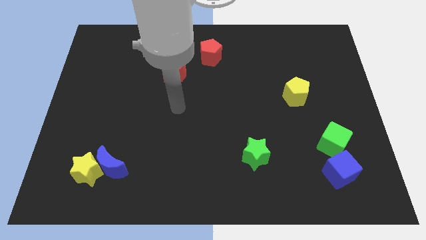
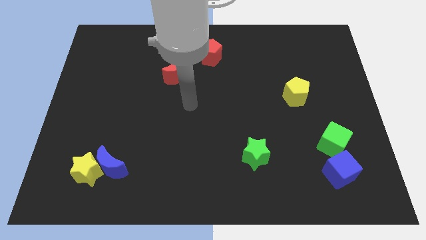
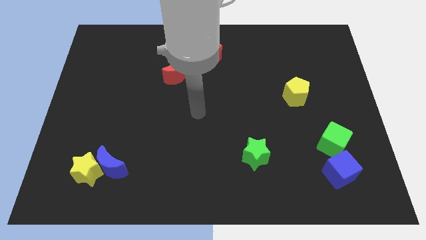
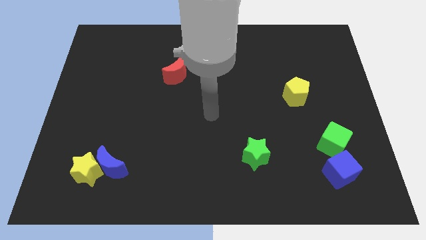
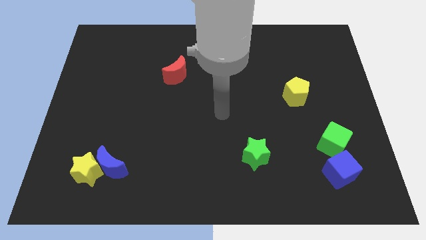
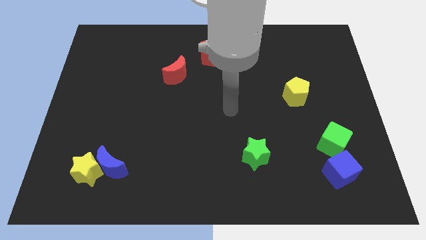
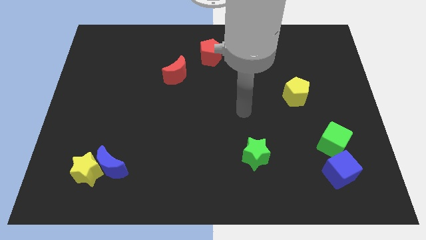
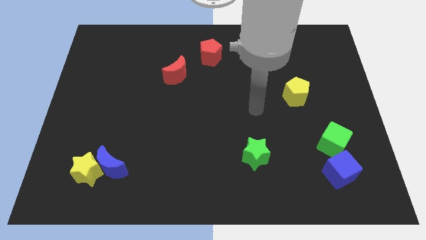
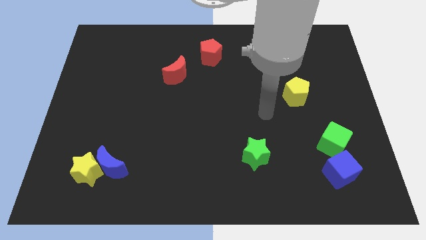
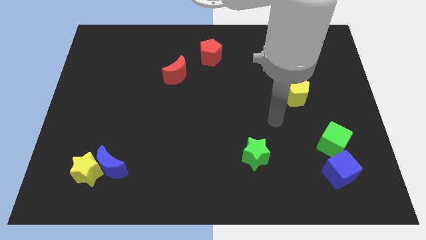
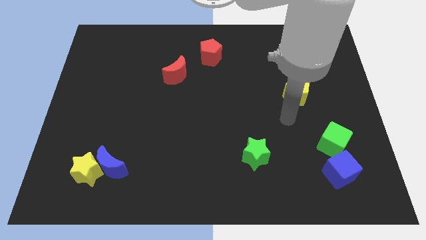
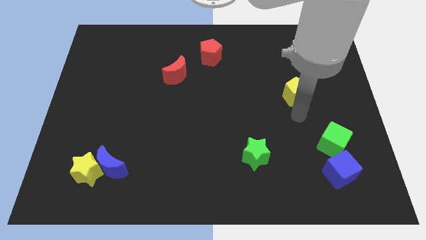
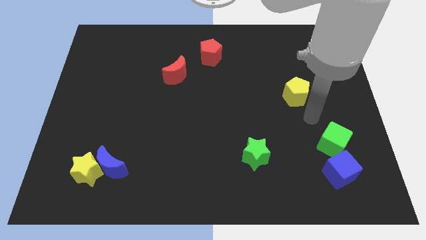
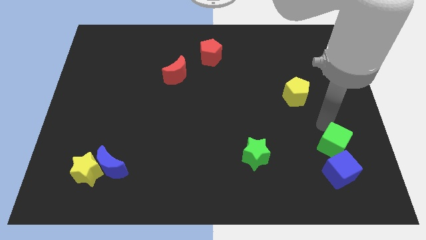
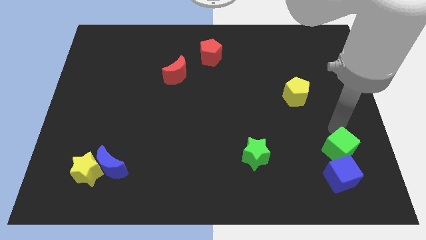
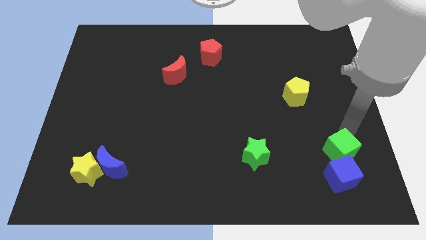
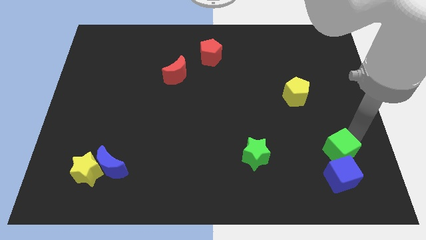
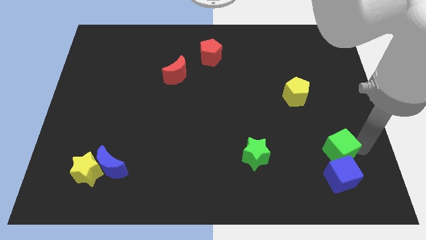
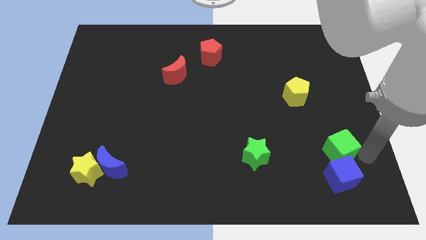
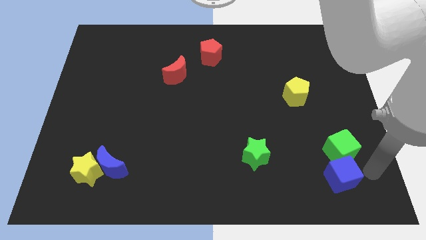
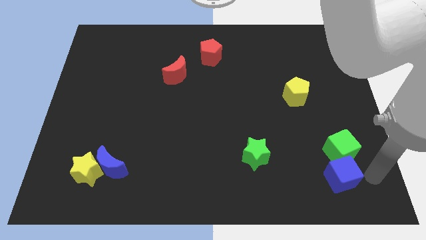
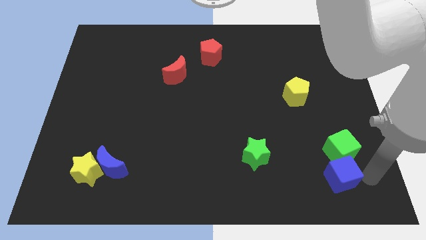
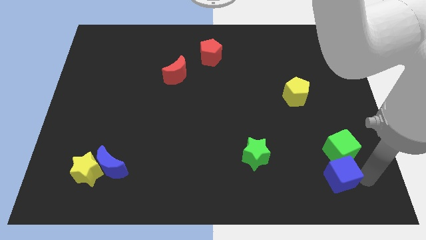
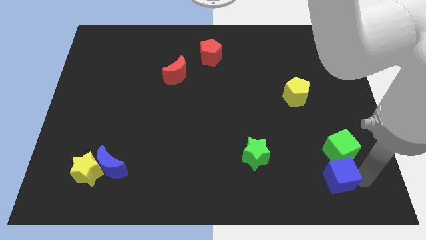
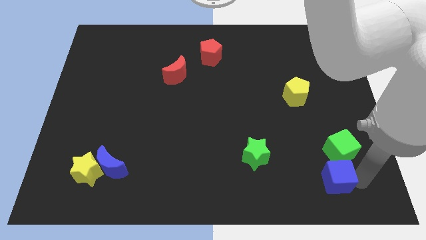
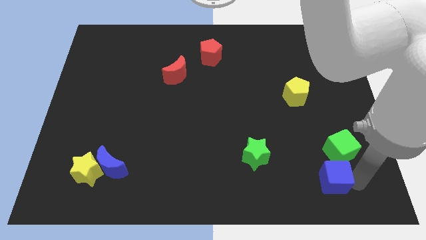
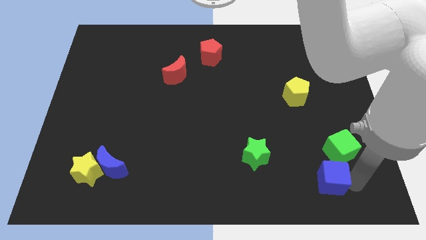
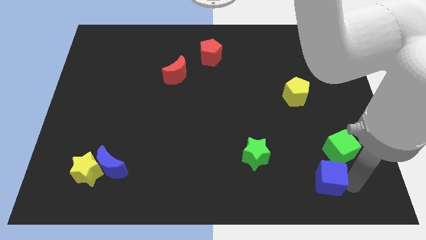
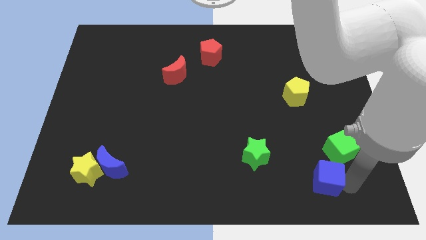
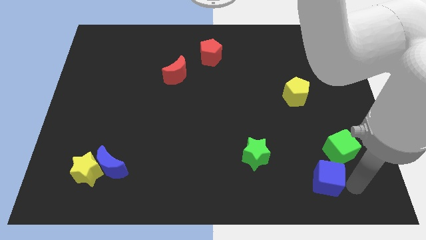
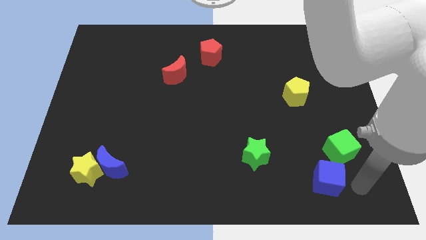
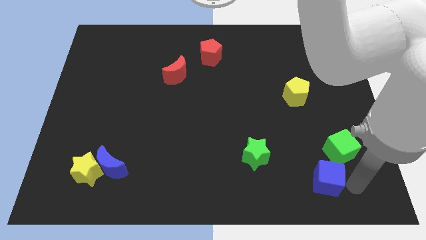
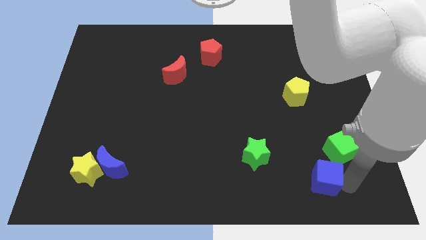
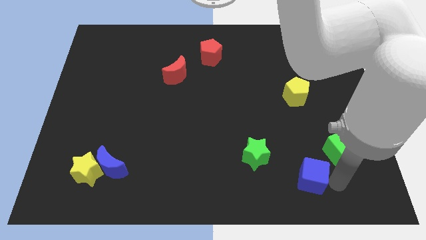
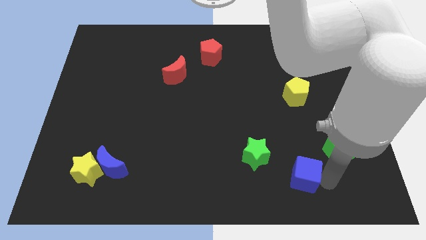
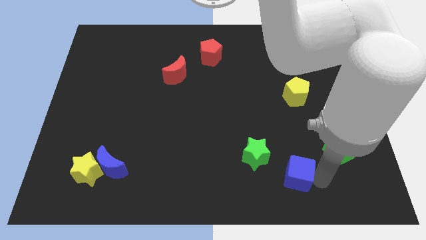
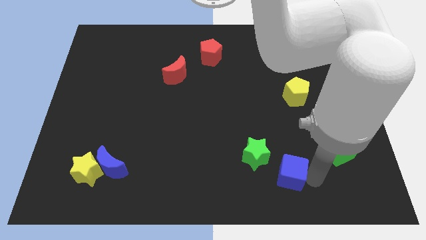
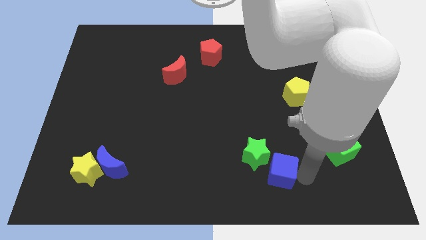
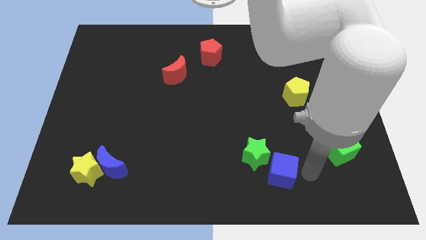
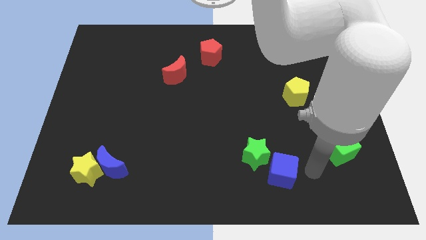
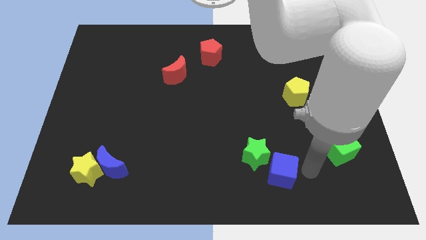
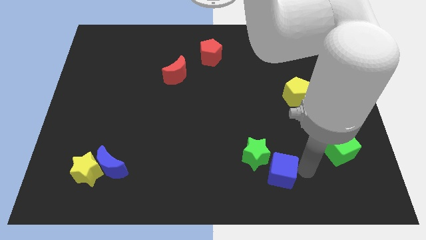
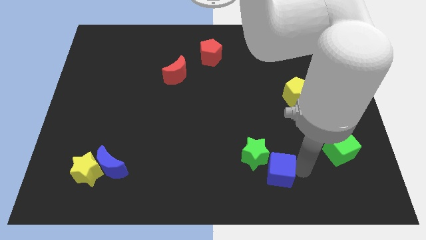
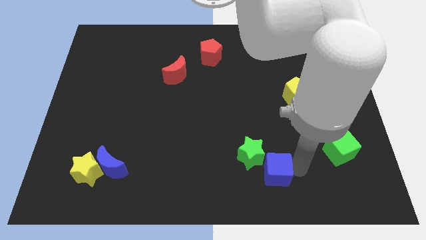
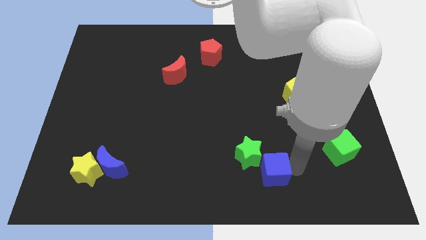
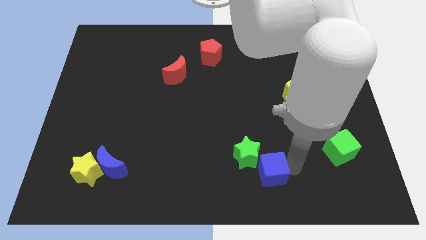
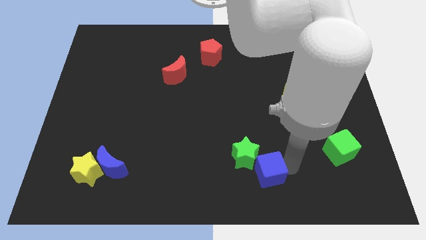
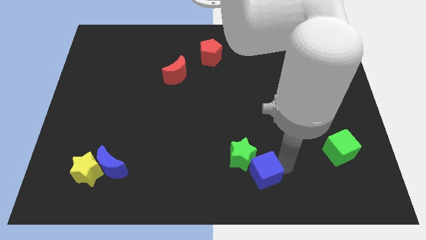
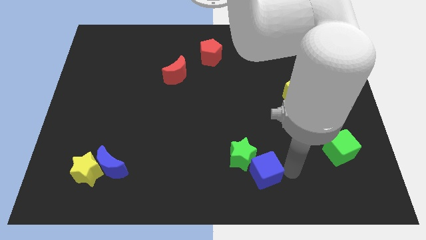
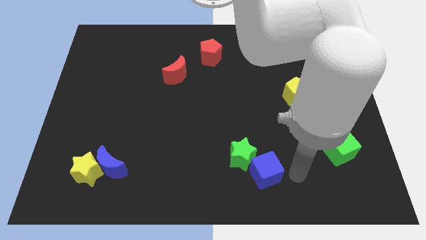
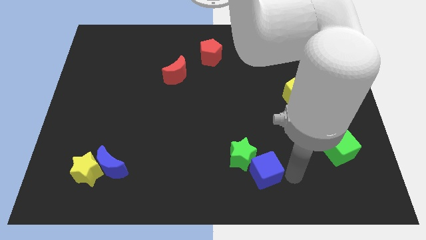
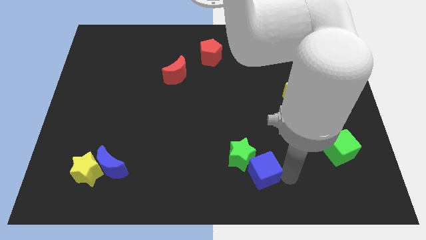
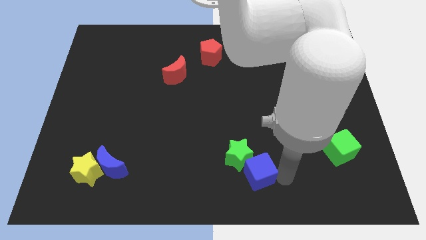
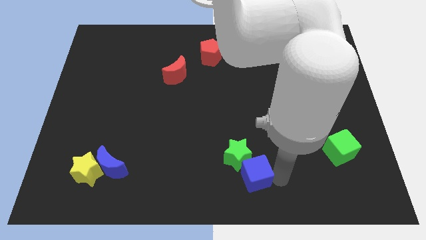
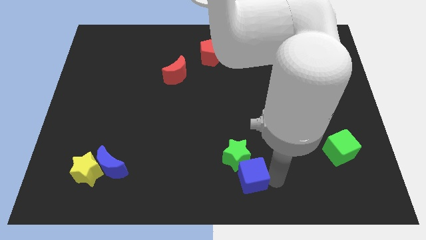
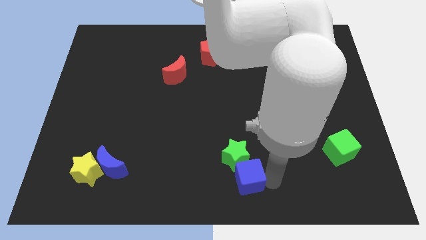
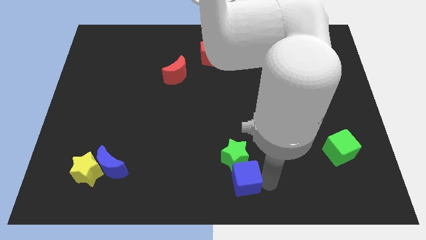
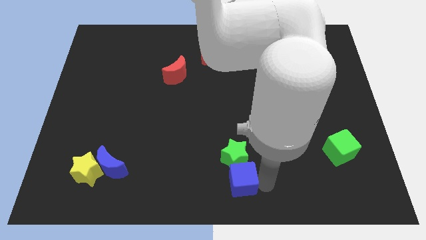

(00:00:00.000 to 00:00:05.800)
slide the blue cube to the left

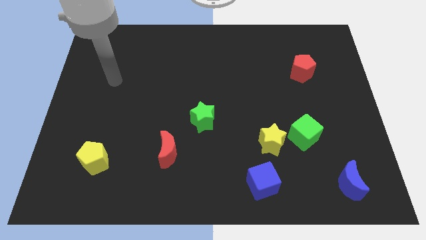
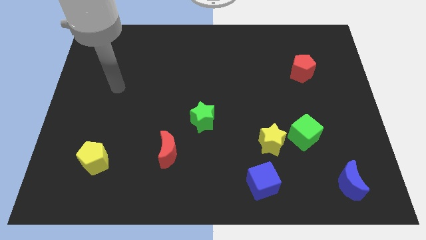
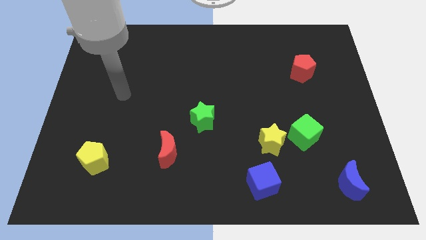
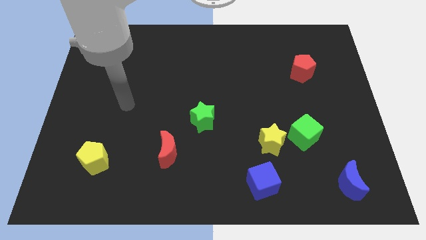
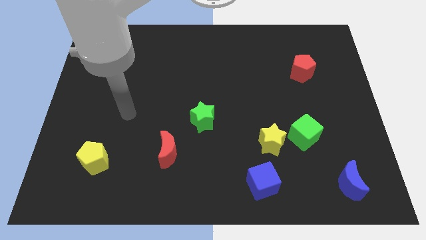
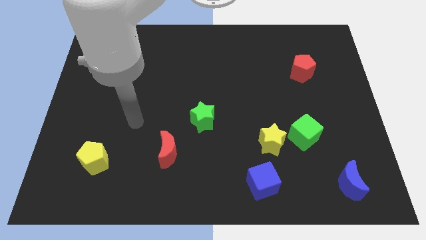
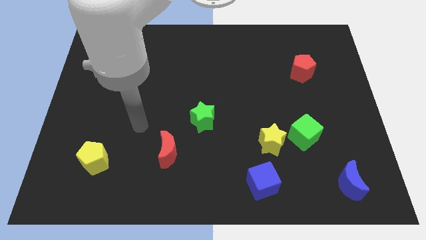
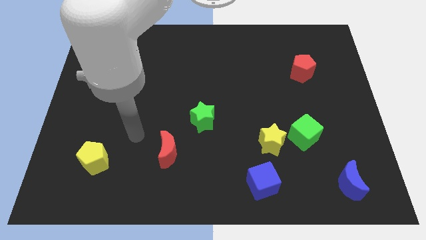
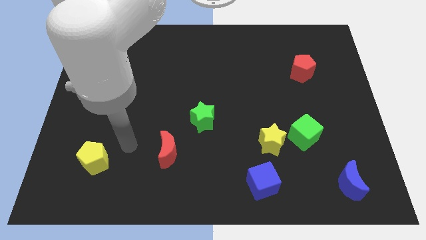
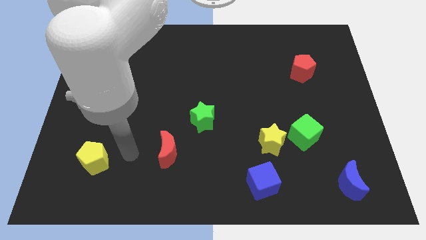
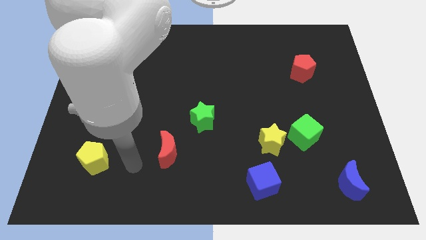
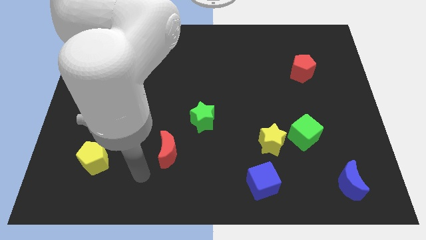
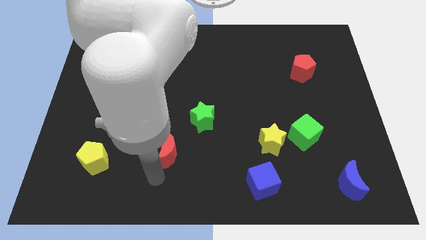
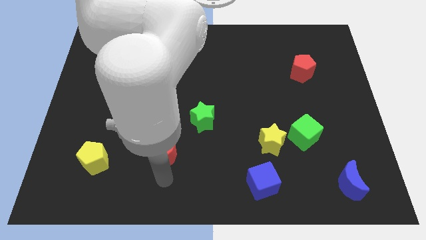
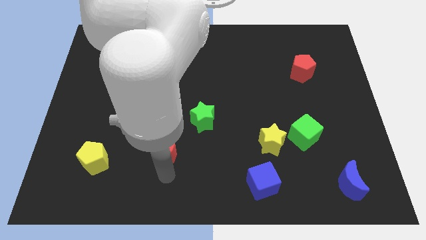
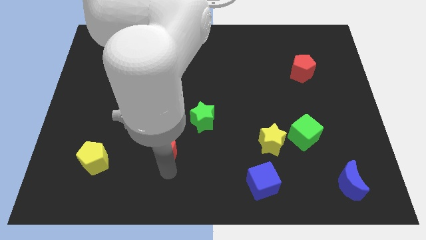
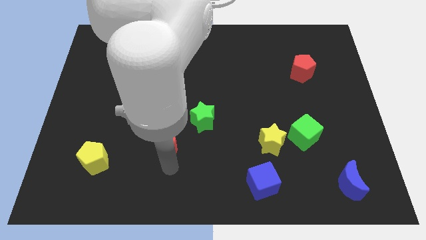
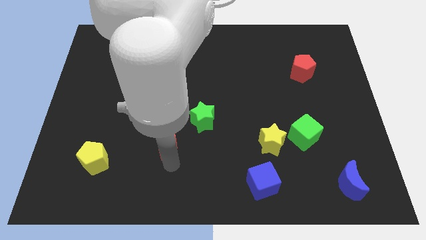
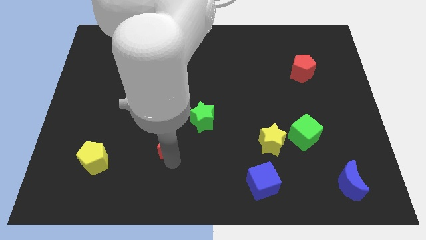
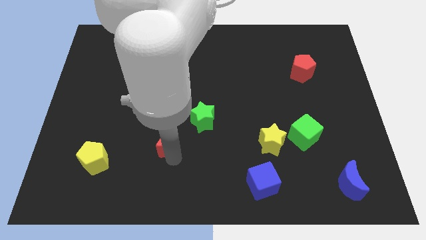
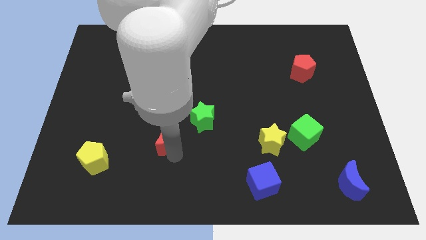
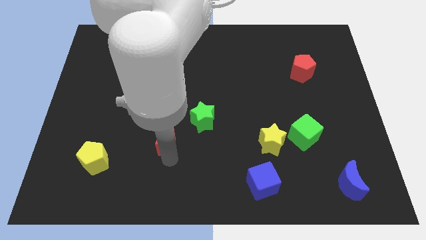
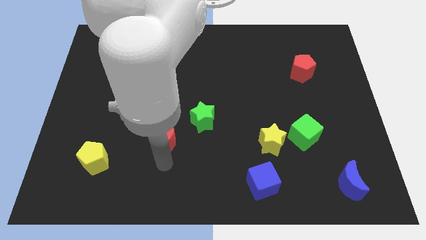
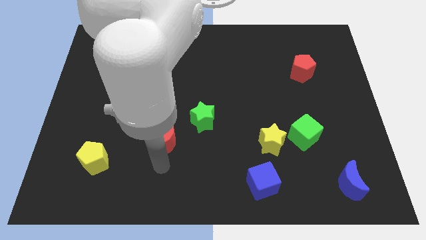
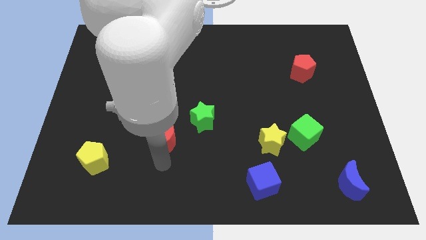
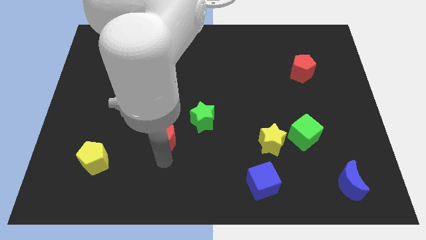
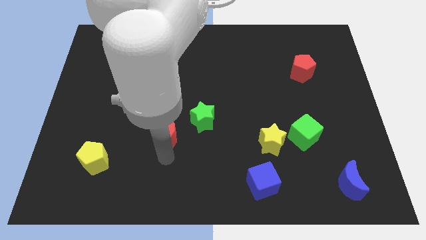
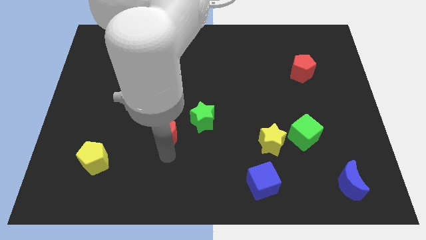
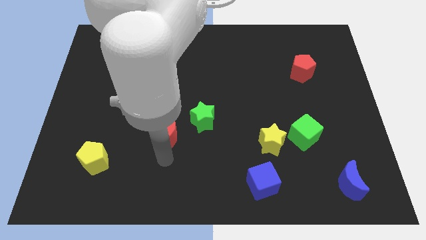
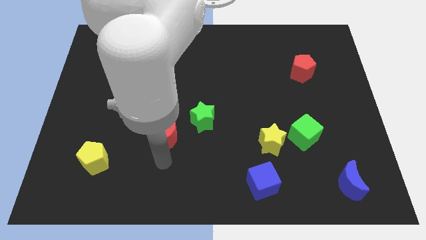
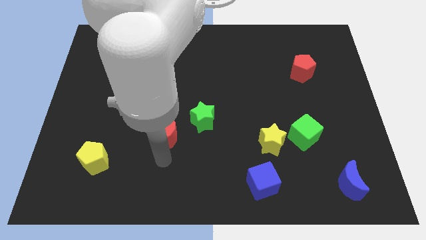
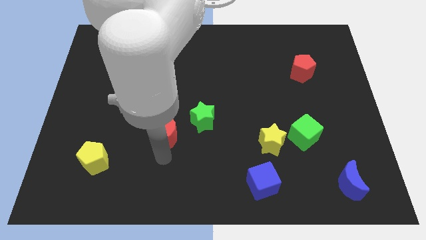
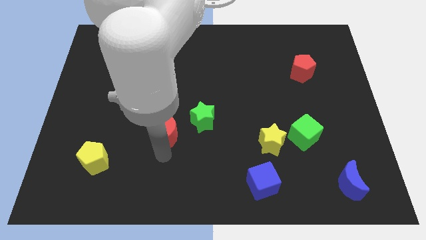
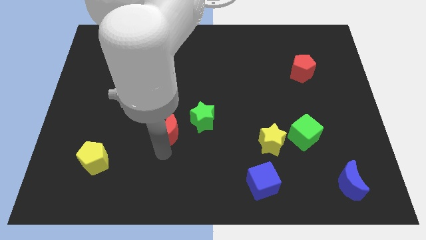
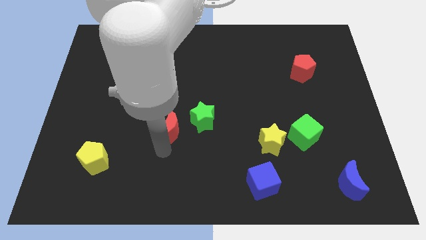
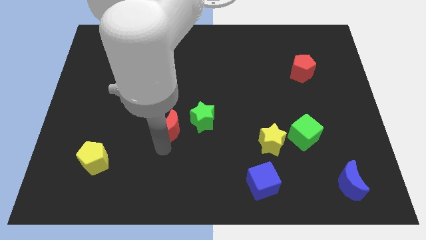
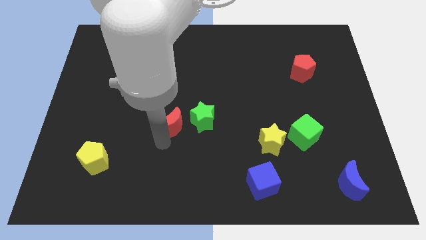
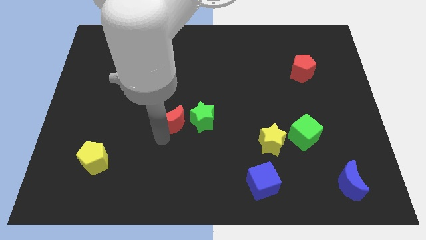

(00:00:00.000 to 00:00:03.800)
slightly push the red moon upwards
